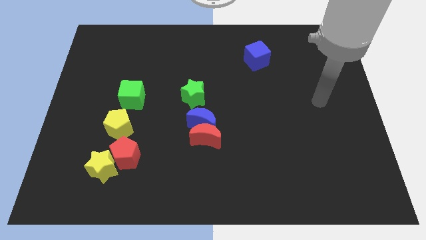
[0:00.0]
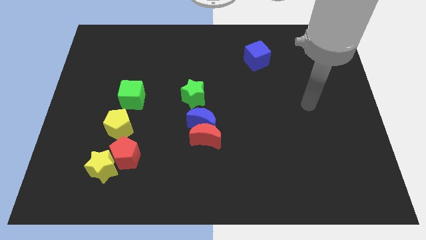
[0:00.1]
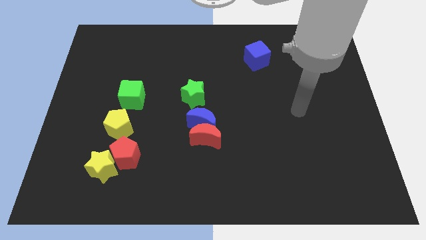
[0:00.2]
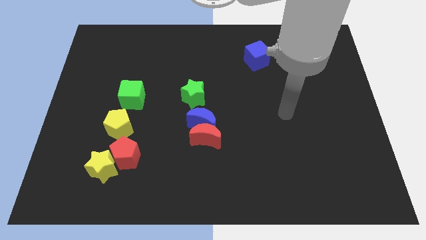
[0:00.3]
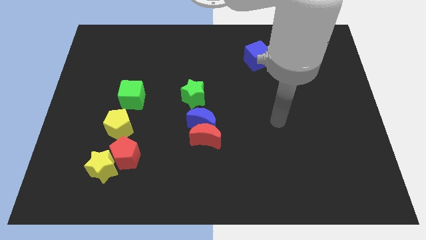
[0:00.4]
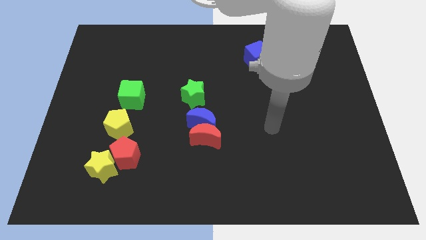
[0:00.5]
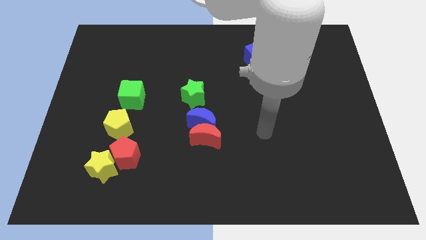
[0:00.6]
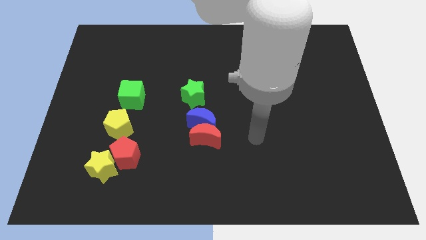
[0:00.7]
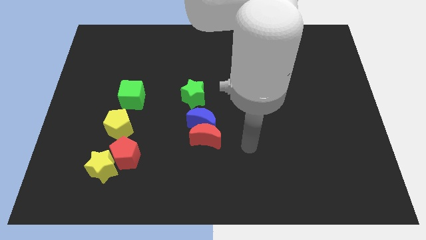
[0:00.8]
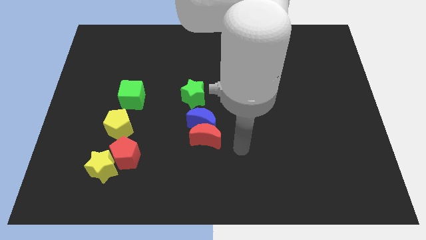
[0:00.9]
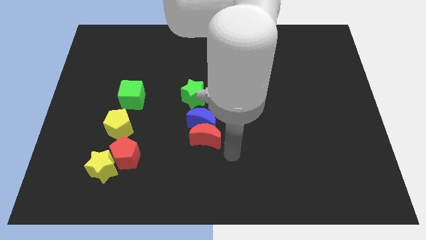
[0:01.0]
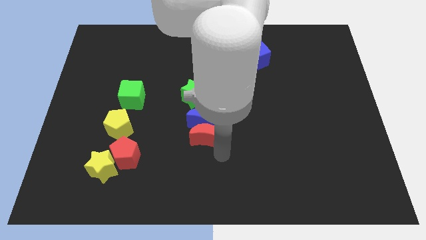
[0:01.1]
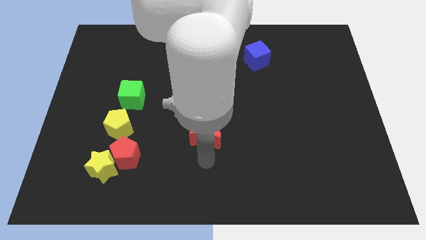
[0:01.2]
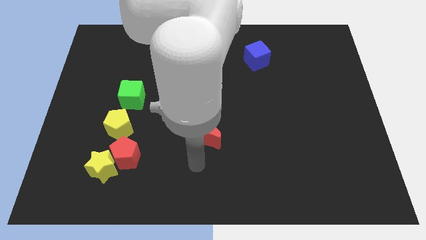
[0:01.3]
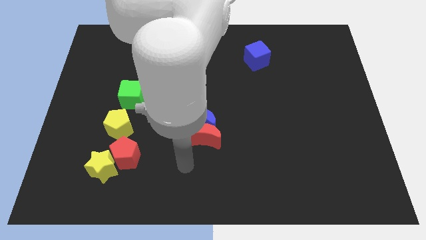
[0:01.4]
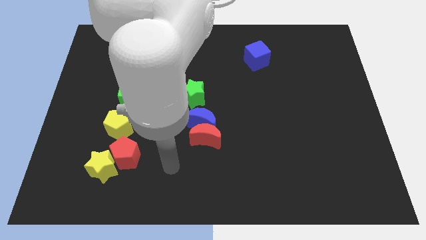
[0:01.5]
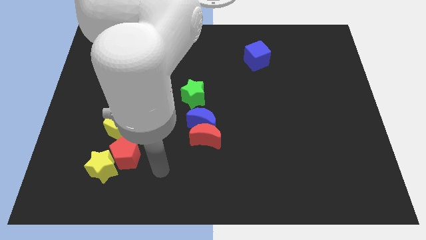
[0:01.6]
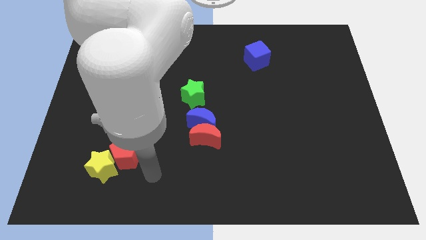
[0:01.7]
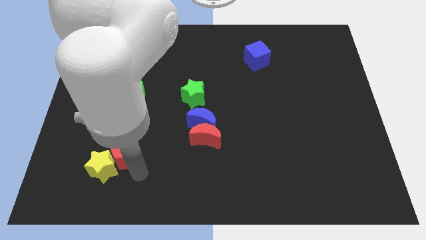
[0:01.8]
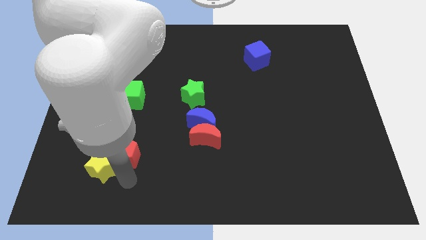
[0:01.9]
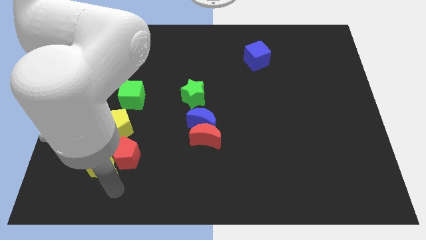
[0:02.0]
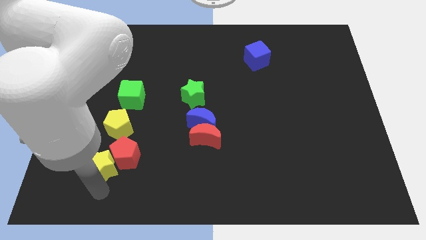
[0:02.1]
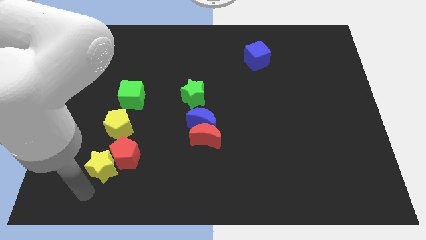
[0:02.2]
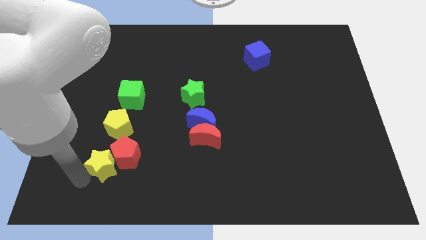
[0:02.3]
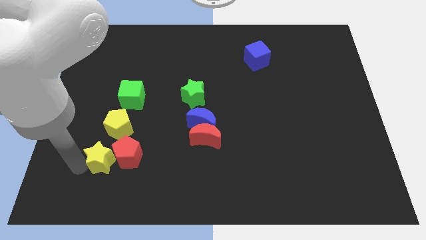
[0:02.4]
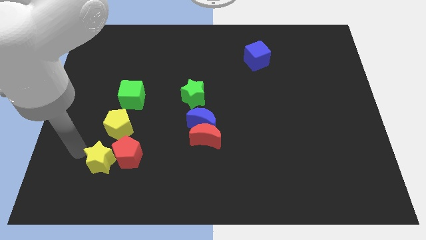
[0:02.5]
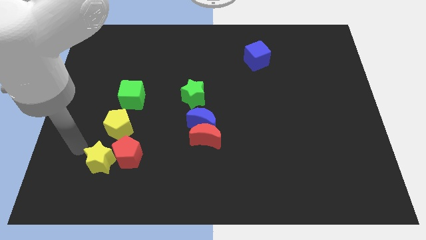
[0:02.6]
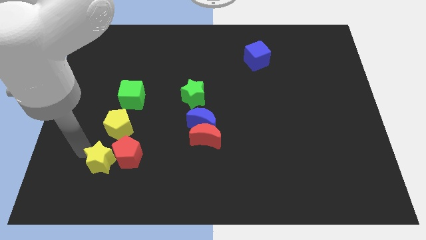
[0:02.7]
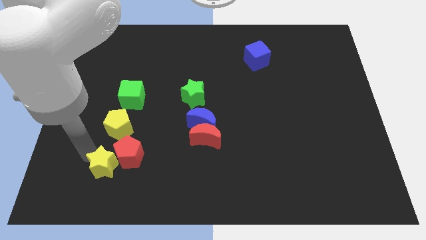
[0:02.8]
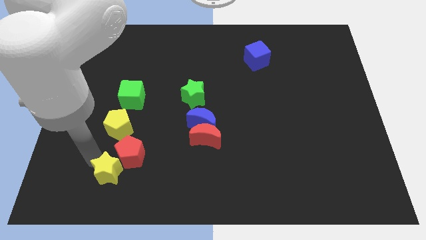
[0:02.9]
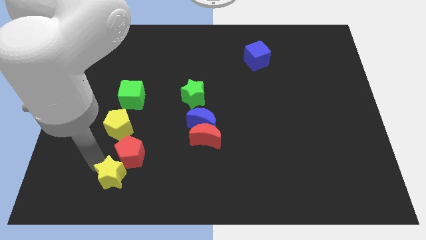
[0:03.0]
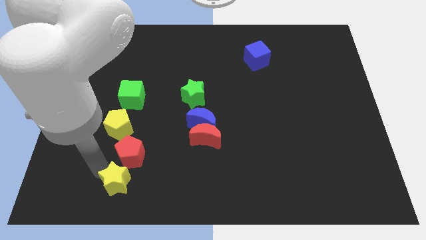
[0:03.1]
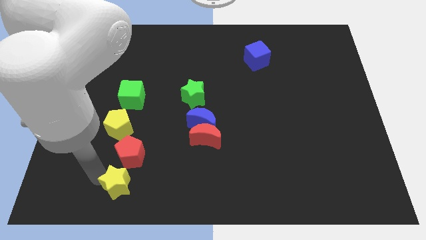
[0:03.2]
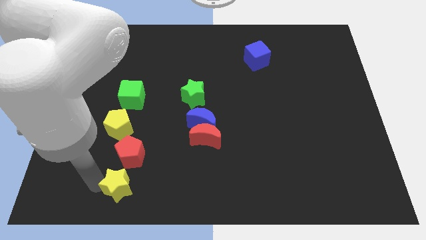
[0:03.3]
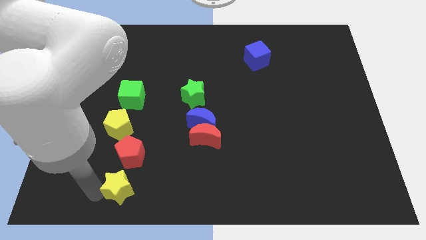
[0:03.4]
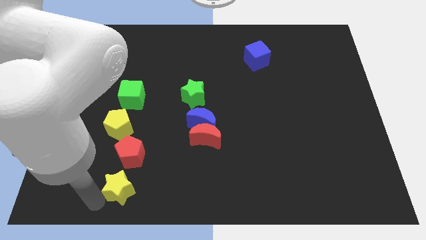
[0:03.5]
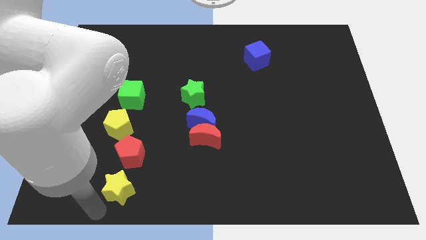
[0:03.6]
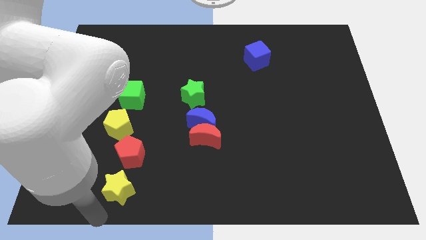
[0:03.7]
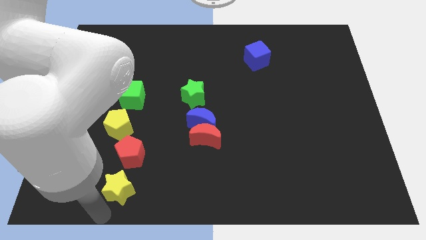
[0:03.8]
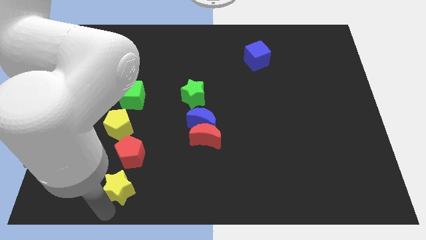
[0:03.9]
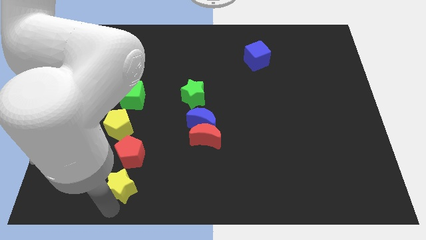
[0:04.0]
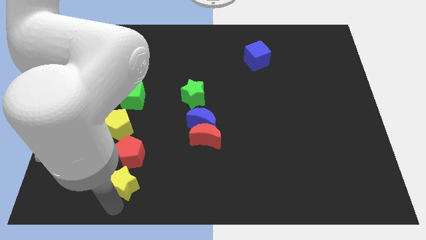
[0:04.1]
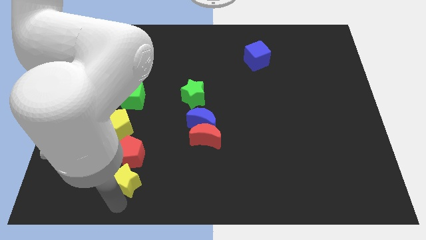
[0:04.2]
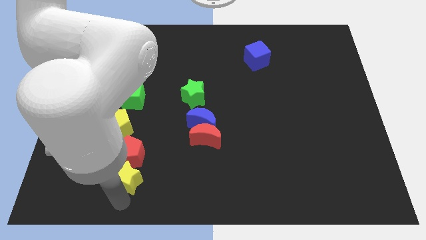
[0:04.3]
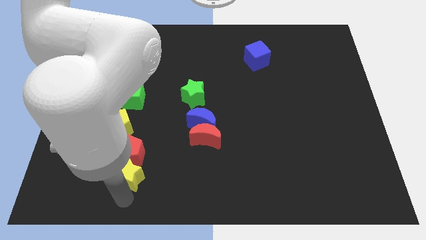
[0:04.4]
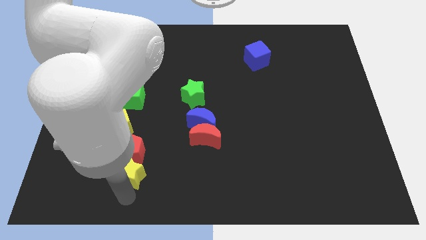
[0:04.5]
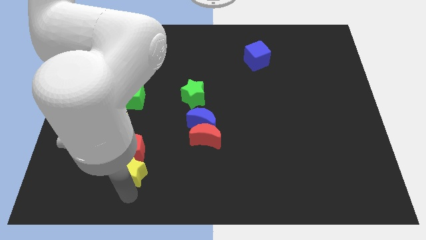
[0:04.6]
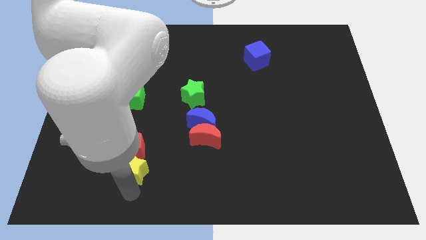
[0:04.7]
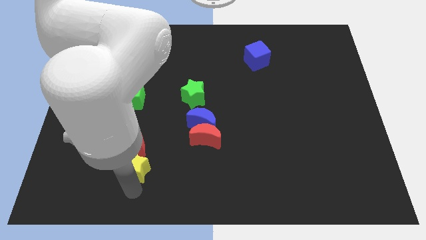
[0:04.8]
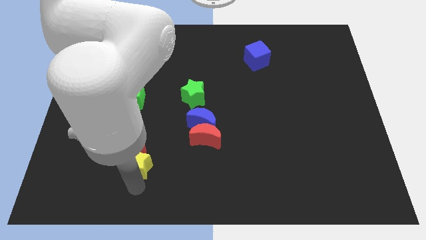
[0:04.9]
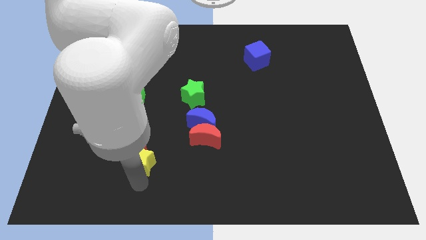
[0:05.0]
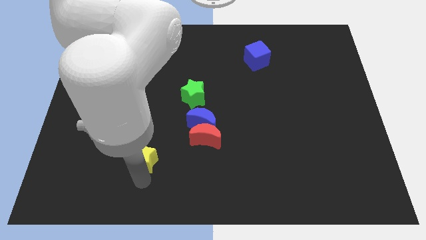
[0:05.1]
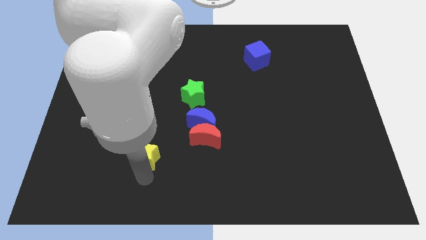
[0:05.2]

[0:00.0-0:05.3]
push the yellow star slightly up and then to the right

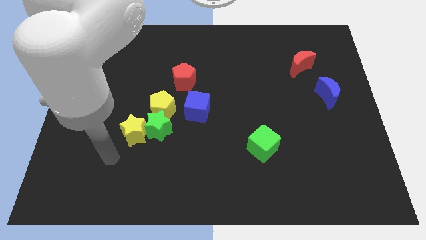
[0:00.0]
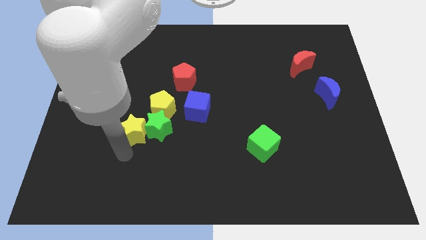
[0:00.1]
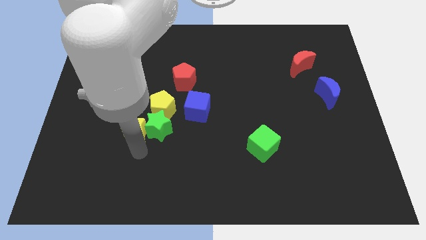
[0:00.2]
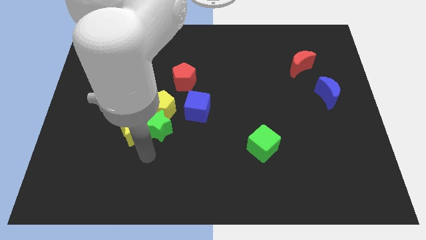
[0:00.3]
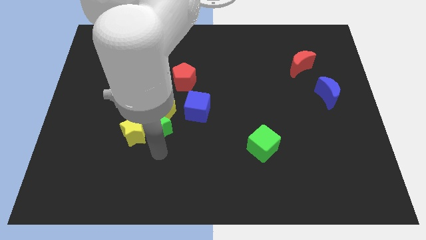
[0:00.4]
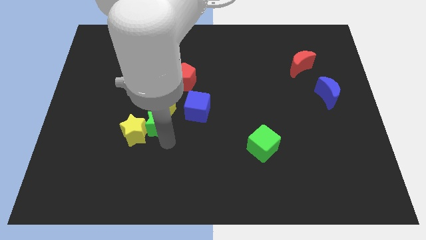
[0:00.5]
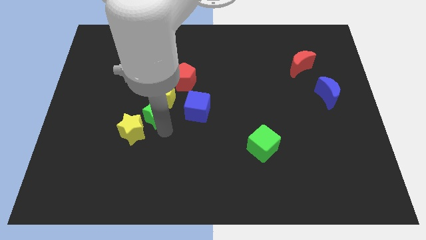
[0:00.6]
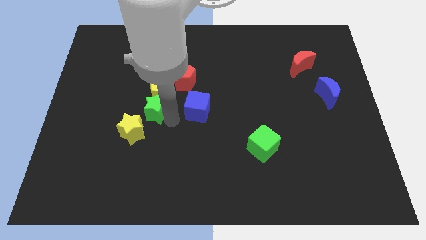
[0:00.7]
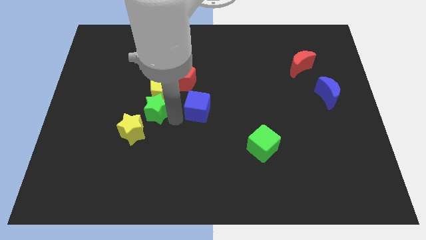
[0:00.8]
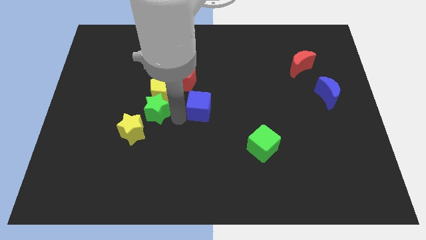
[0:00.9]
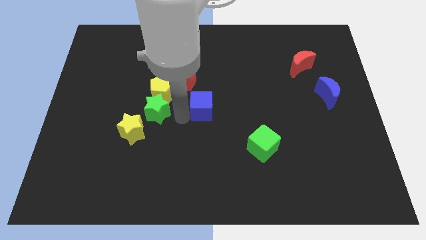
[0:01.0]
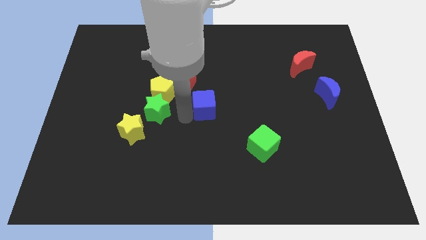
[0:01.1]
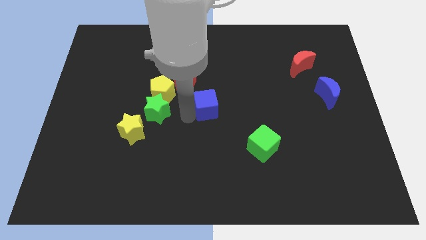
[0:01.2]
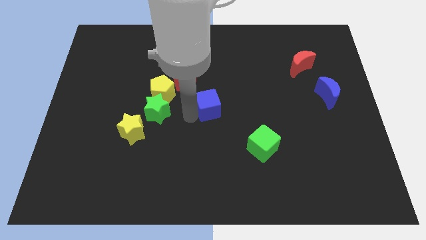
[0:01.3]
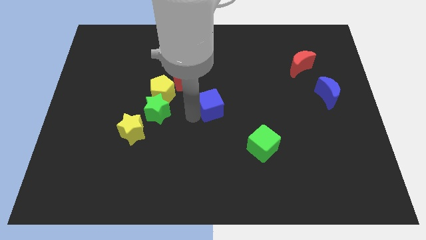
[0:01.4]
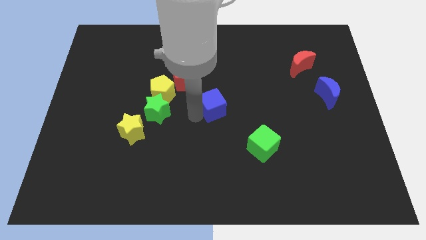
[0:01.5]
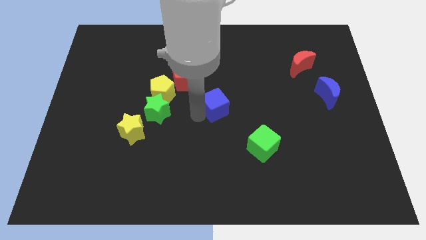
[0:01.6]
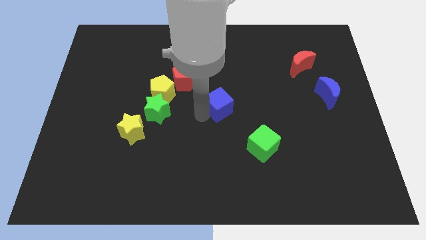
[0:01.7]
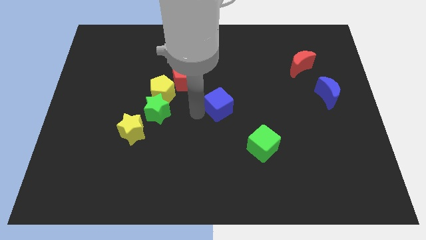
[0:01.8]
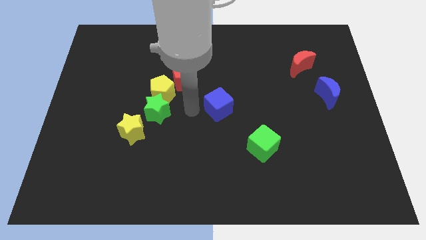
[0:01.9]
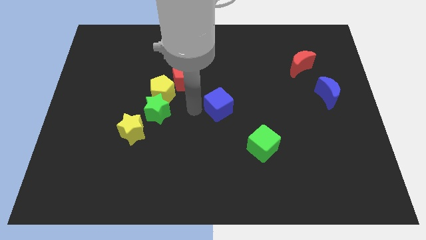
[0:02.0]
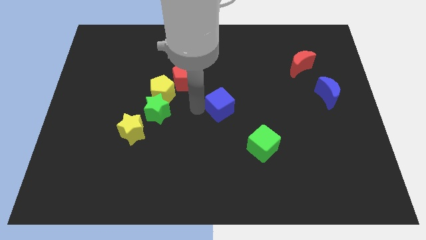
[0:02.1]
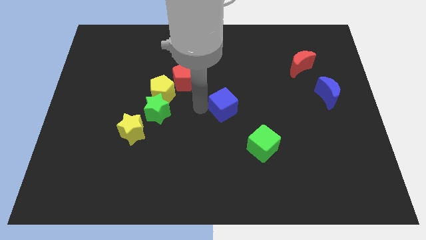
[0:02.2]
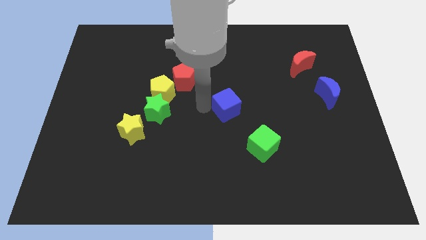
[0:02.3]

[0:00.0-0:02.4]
slightly push the blue cube to the right
